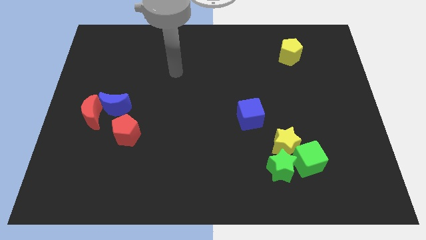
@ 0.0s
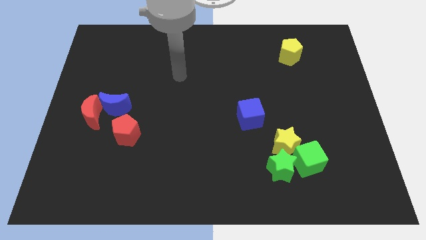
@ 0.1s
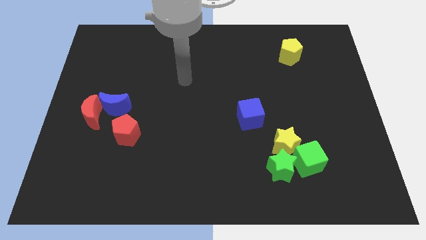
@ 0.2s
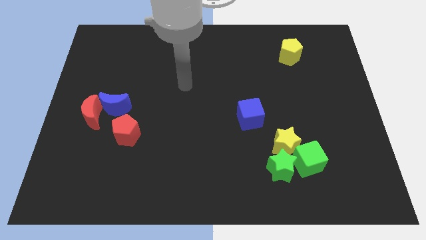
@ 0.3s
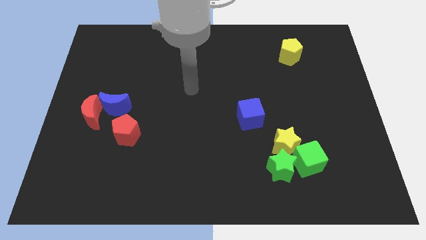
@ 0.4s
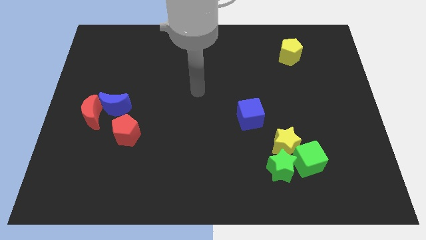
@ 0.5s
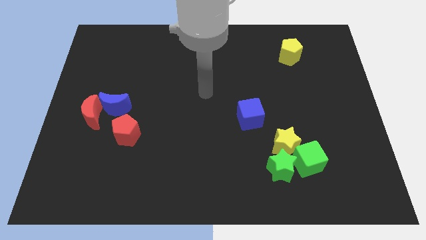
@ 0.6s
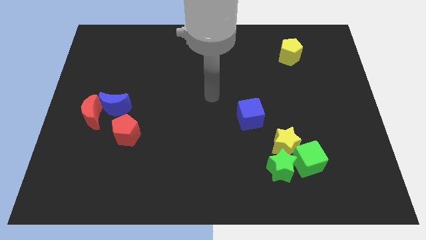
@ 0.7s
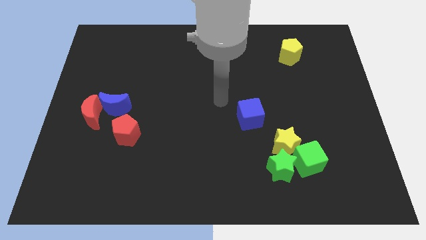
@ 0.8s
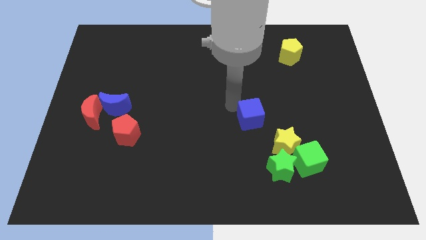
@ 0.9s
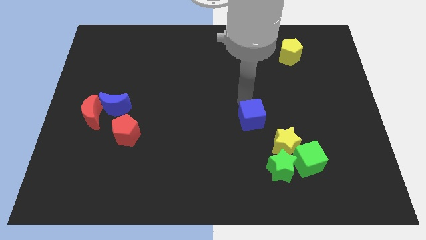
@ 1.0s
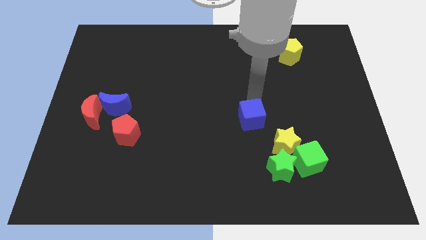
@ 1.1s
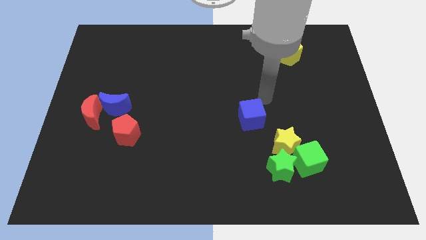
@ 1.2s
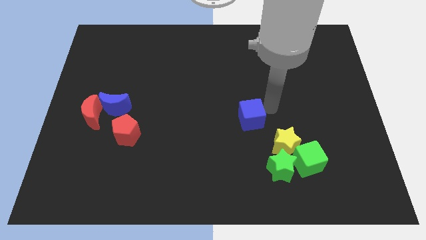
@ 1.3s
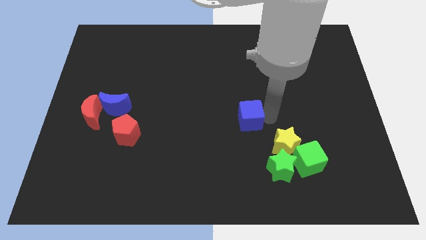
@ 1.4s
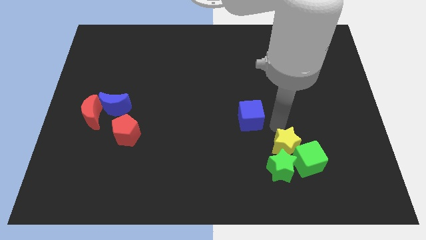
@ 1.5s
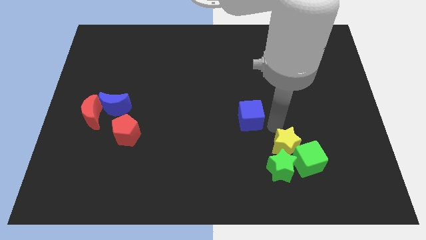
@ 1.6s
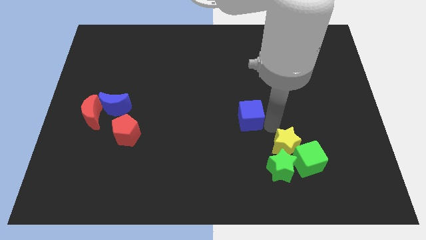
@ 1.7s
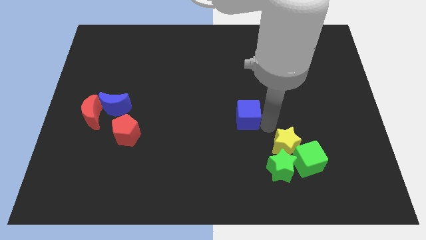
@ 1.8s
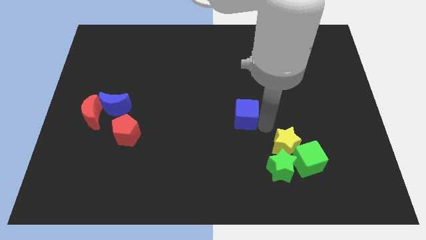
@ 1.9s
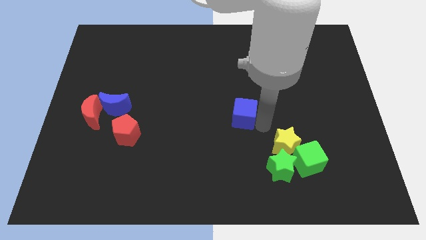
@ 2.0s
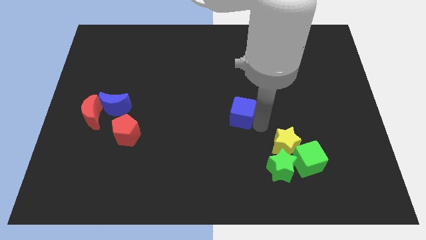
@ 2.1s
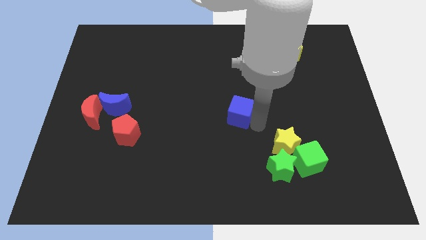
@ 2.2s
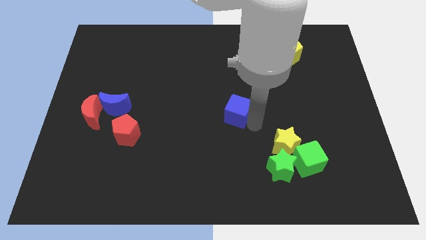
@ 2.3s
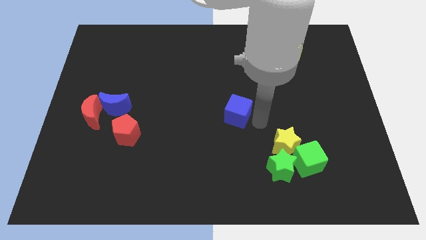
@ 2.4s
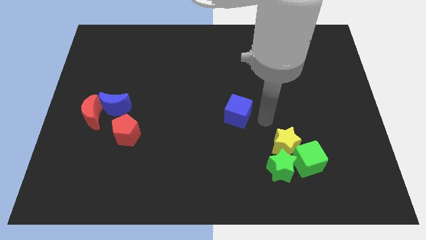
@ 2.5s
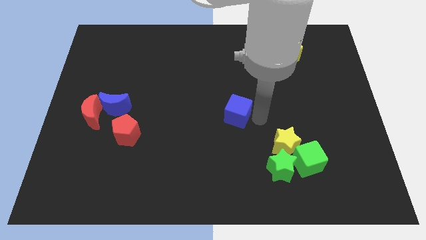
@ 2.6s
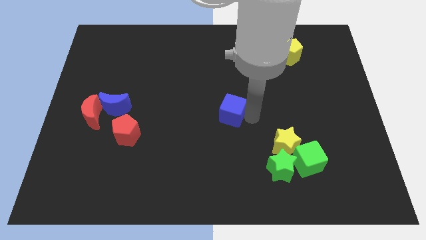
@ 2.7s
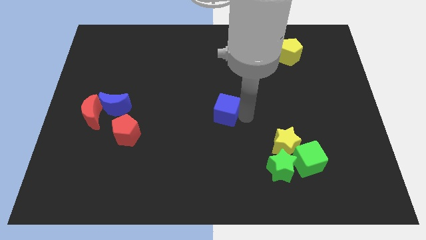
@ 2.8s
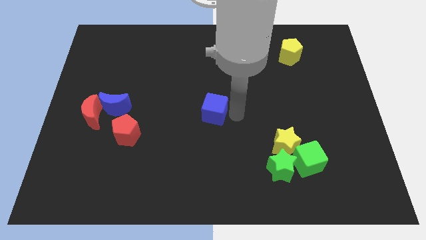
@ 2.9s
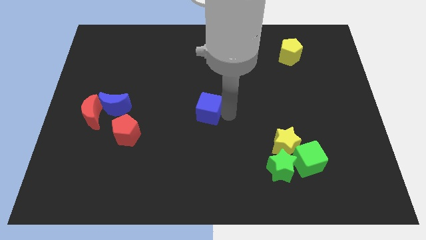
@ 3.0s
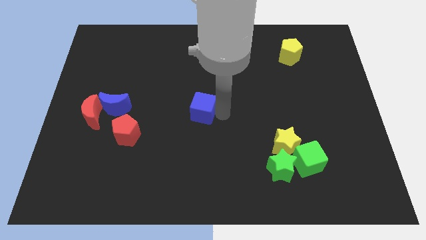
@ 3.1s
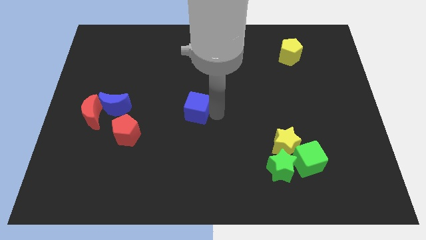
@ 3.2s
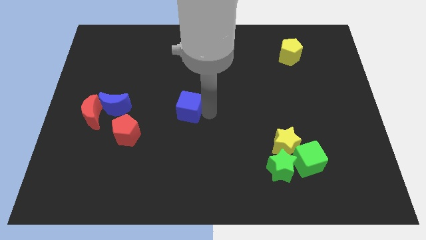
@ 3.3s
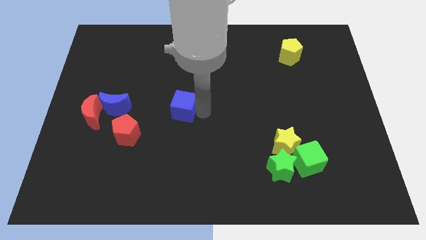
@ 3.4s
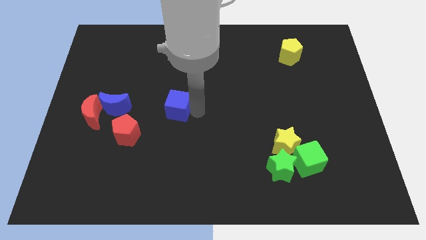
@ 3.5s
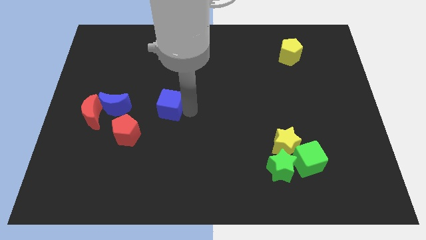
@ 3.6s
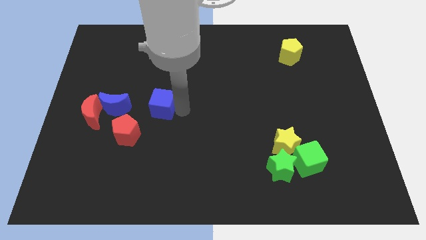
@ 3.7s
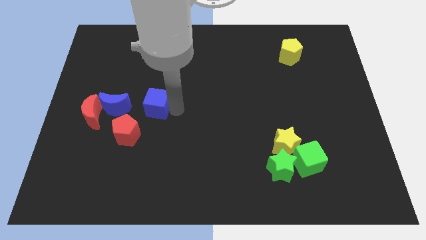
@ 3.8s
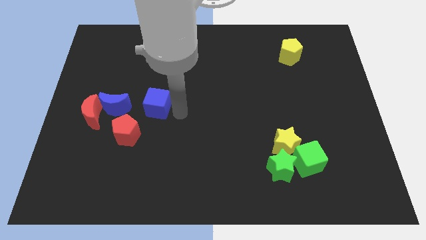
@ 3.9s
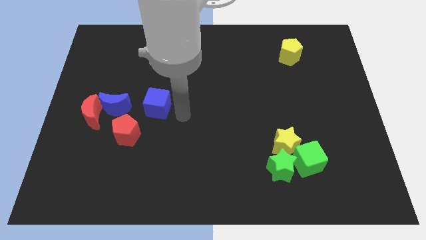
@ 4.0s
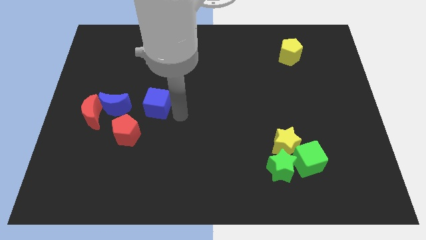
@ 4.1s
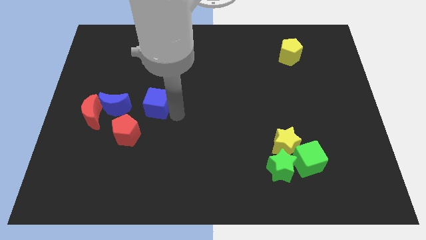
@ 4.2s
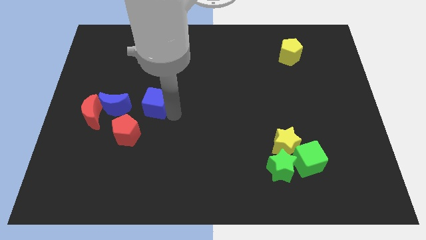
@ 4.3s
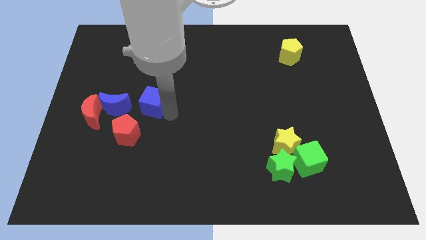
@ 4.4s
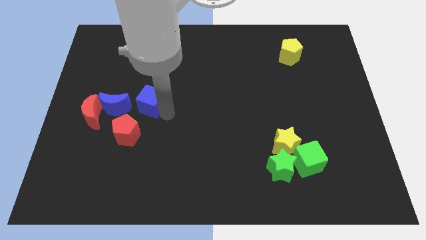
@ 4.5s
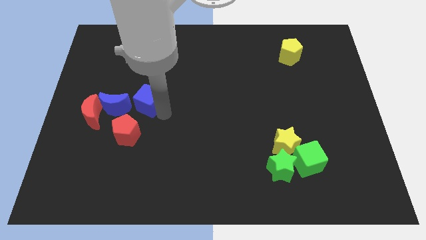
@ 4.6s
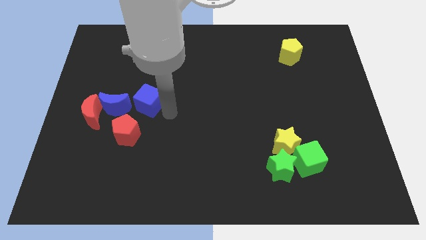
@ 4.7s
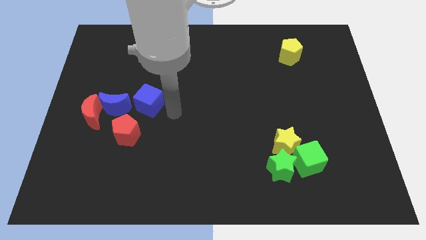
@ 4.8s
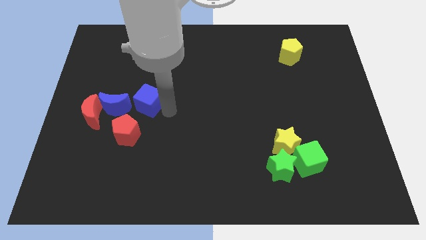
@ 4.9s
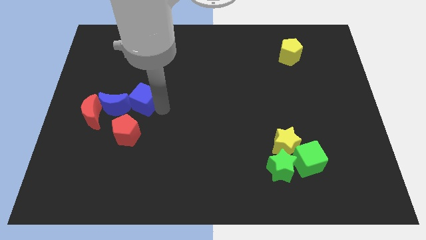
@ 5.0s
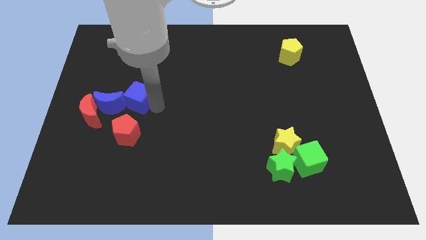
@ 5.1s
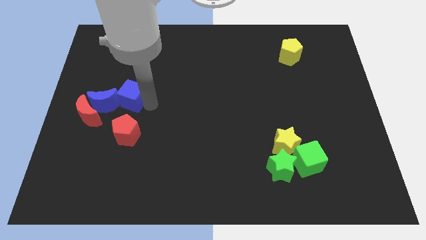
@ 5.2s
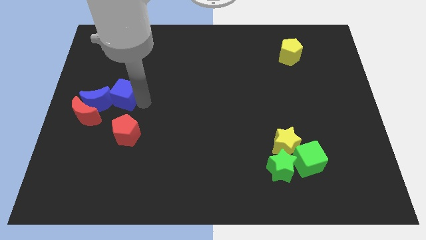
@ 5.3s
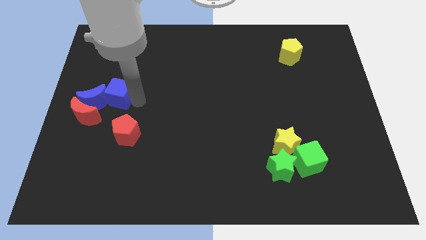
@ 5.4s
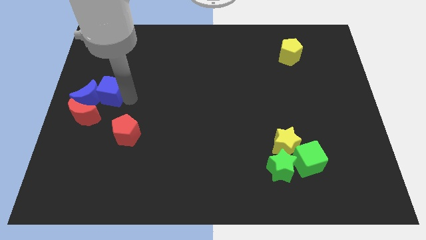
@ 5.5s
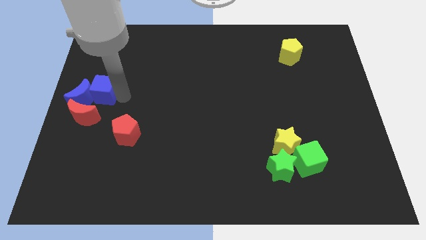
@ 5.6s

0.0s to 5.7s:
slide the blue cube to the left side of the board

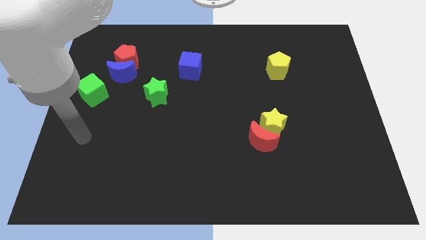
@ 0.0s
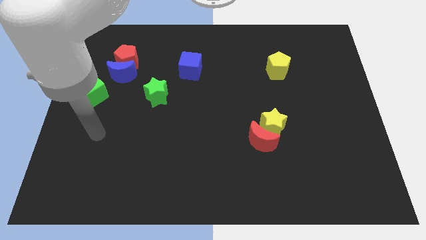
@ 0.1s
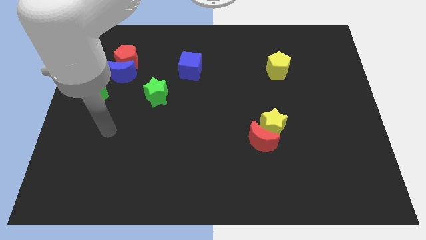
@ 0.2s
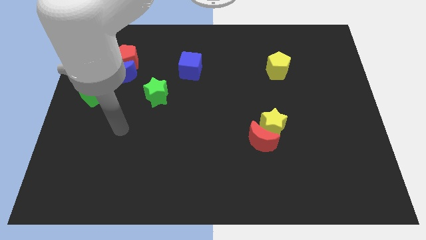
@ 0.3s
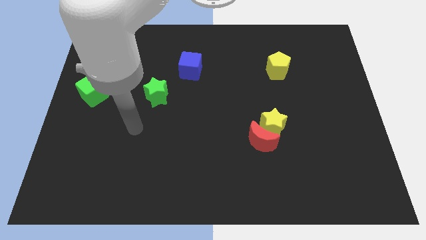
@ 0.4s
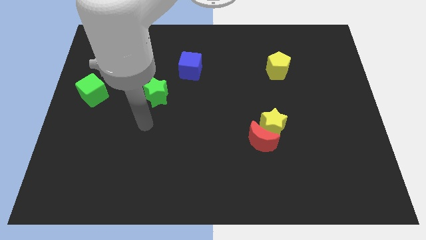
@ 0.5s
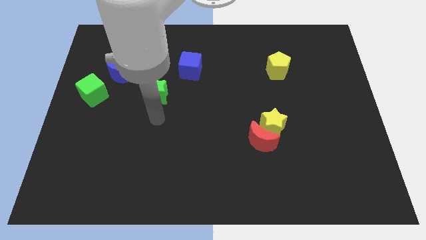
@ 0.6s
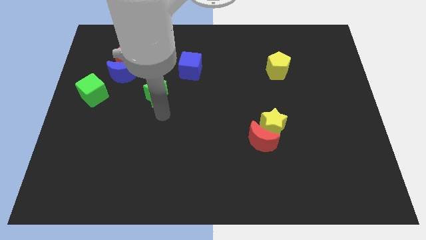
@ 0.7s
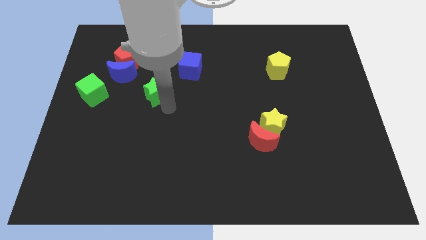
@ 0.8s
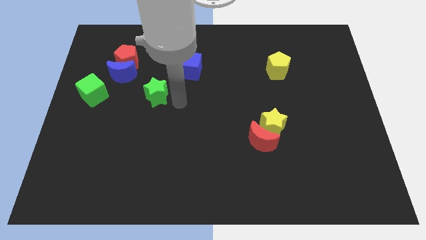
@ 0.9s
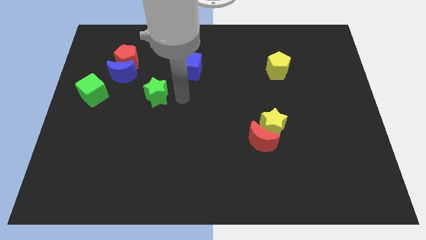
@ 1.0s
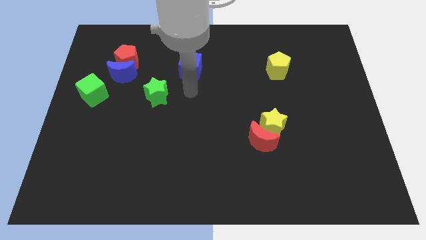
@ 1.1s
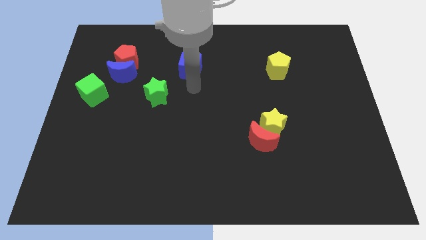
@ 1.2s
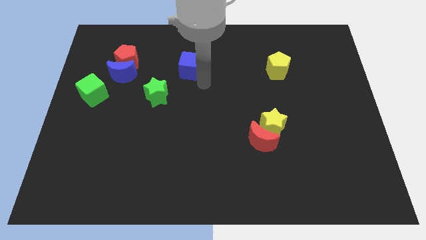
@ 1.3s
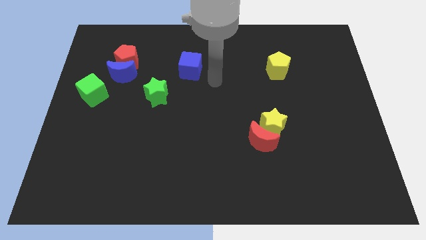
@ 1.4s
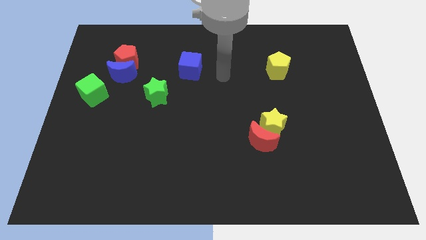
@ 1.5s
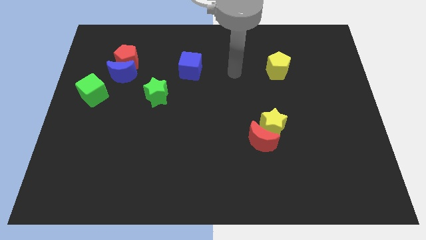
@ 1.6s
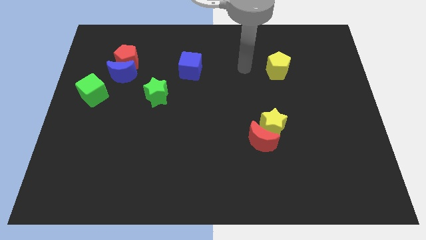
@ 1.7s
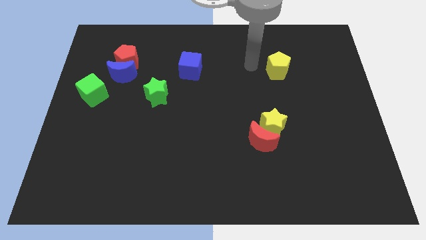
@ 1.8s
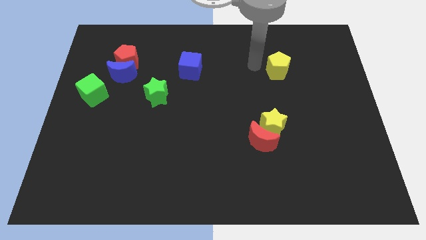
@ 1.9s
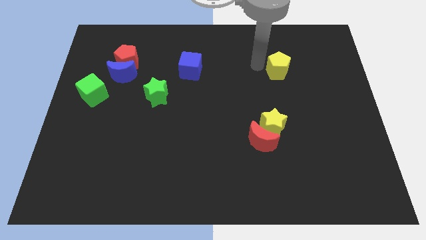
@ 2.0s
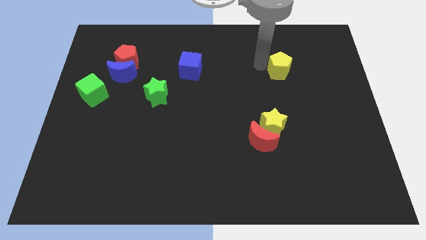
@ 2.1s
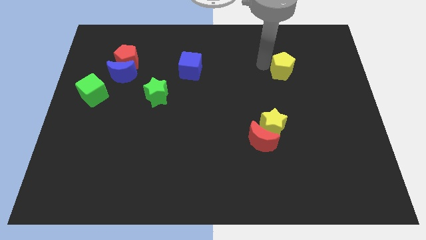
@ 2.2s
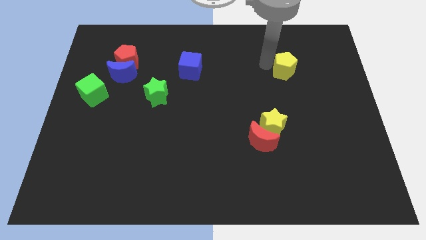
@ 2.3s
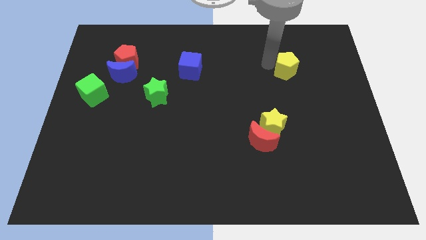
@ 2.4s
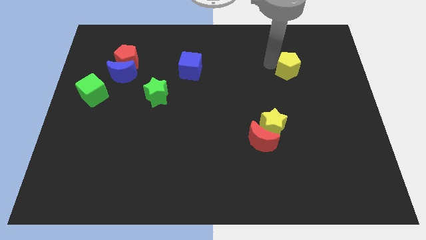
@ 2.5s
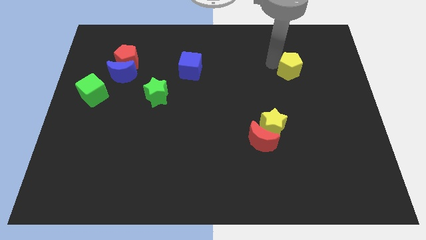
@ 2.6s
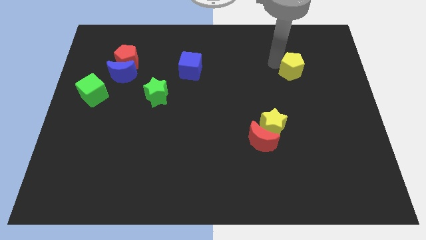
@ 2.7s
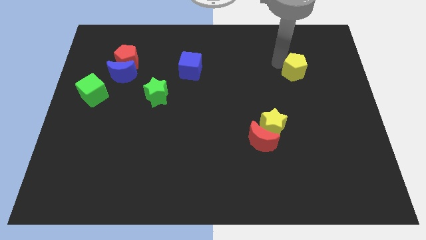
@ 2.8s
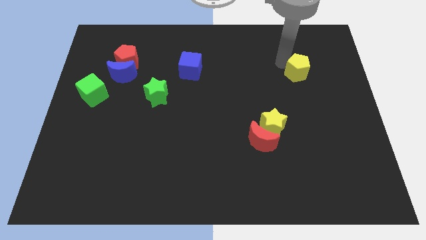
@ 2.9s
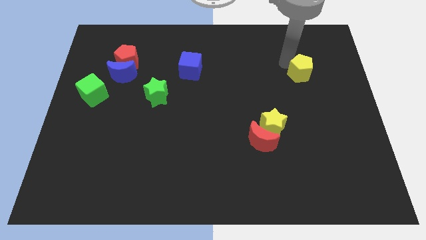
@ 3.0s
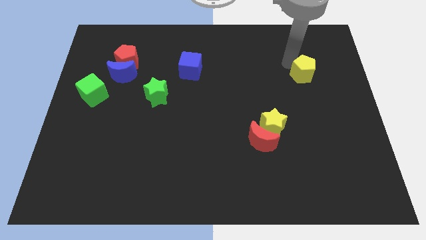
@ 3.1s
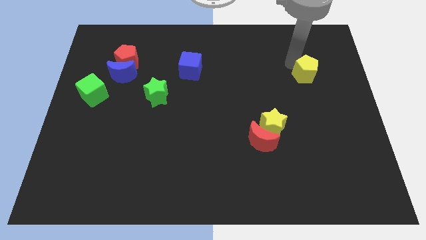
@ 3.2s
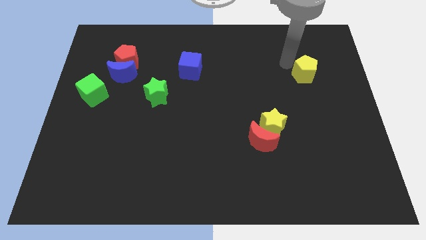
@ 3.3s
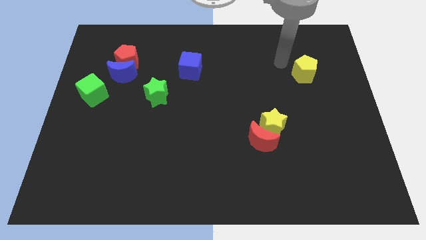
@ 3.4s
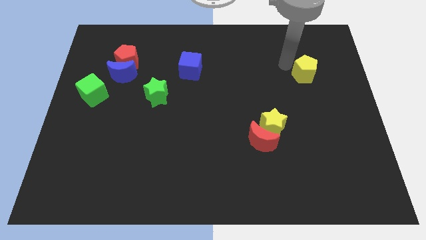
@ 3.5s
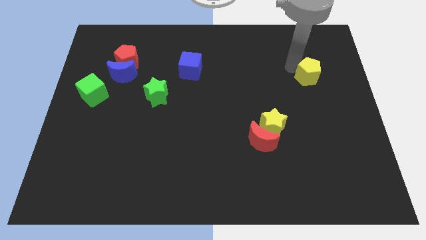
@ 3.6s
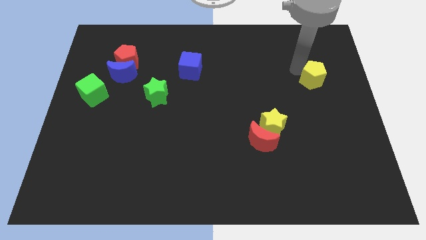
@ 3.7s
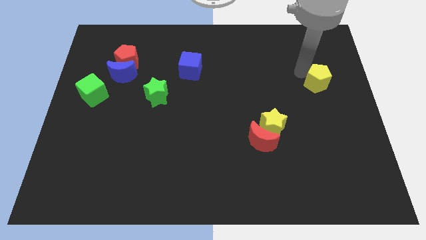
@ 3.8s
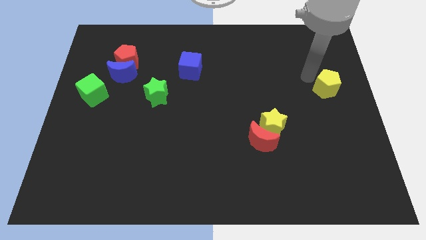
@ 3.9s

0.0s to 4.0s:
move the yellow pentagon to the right side of the board
